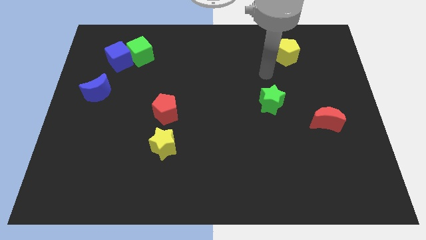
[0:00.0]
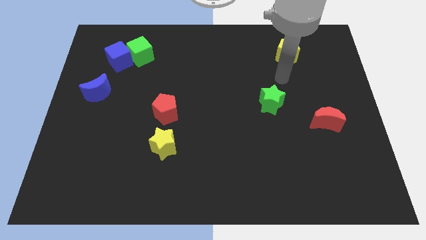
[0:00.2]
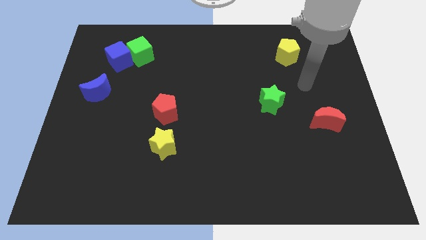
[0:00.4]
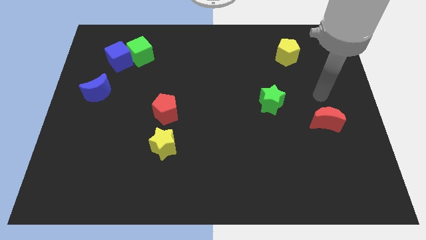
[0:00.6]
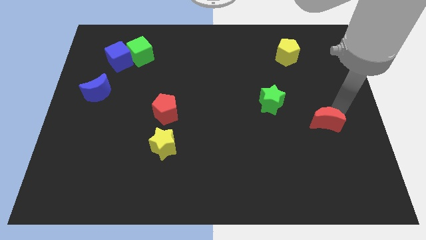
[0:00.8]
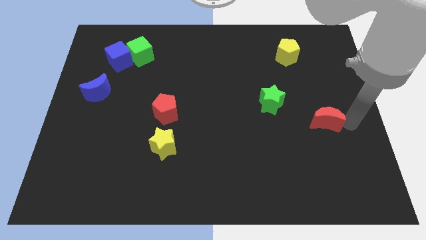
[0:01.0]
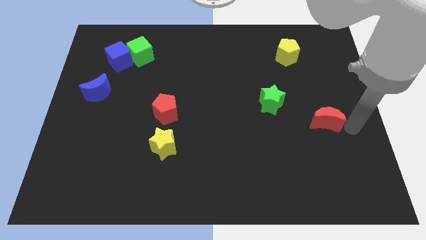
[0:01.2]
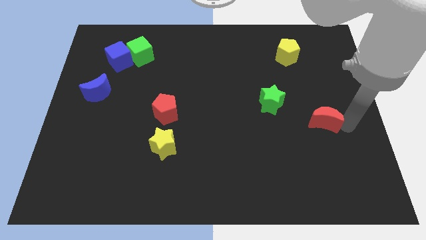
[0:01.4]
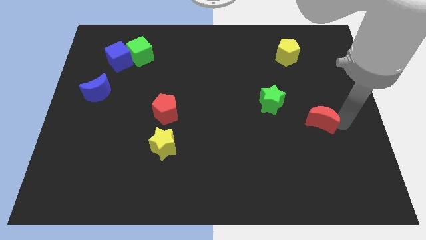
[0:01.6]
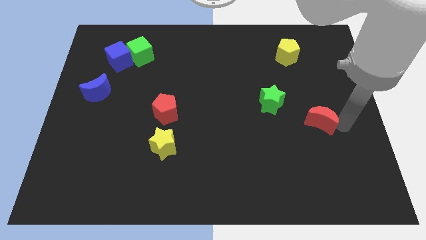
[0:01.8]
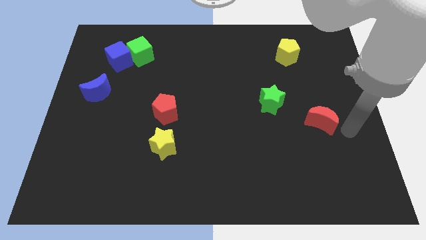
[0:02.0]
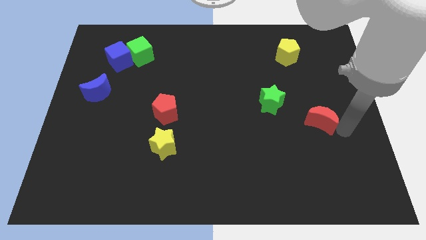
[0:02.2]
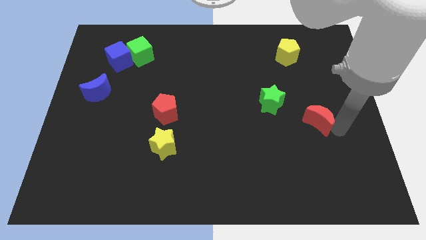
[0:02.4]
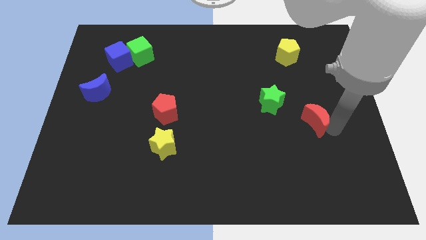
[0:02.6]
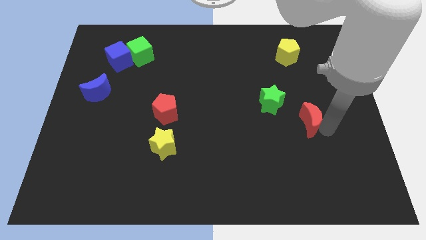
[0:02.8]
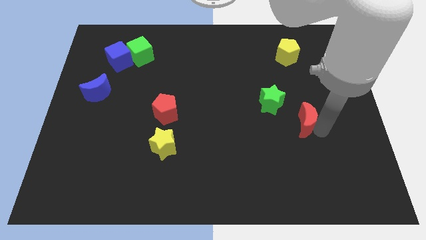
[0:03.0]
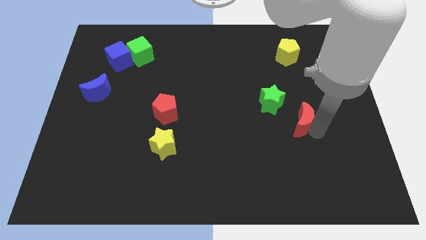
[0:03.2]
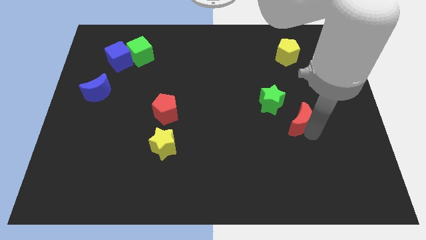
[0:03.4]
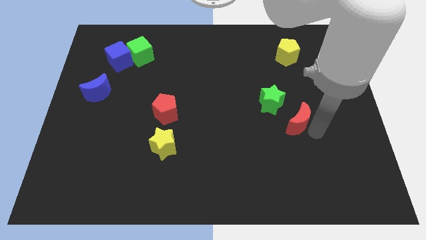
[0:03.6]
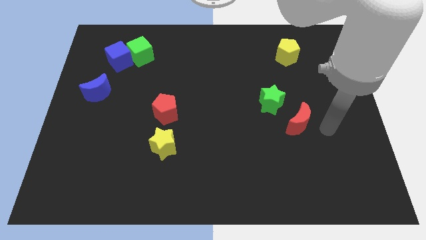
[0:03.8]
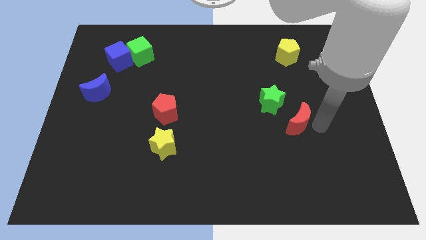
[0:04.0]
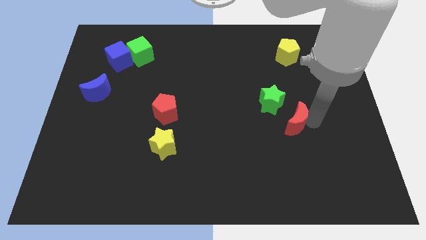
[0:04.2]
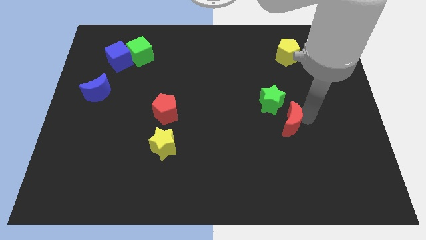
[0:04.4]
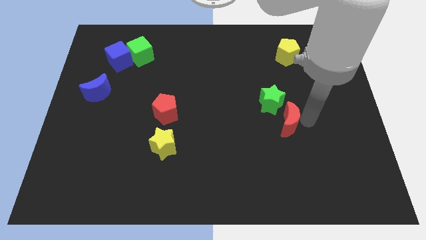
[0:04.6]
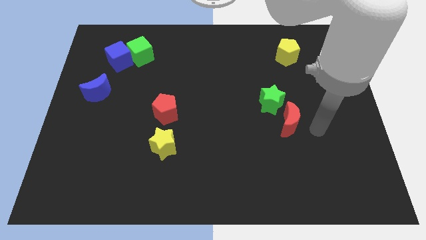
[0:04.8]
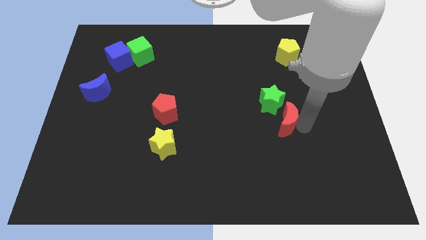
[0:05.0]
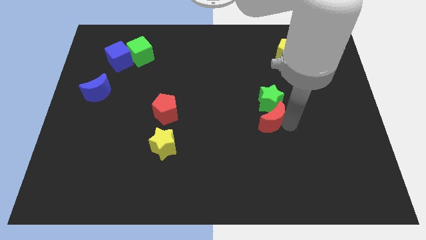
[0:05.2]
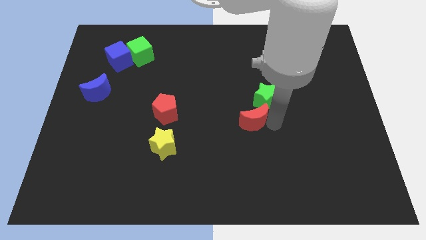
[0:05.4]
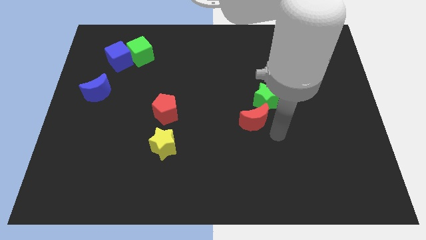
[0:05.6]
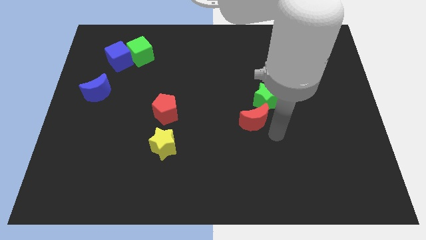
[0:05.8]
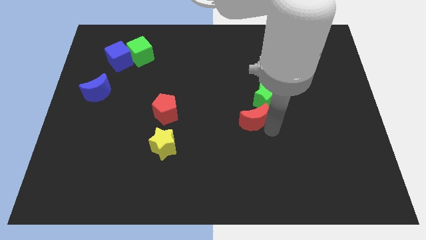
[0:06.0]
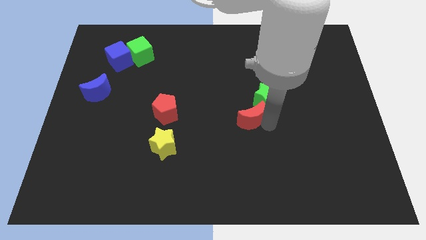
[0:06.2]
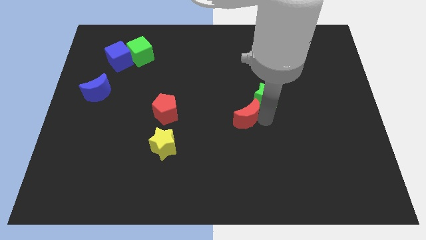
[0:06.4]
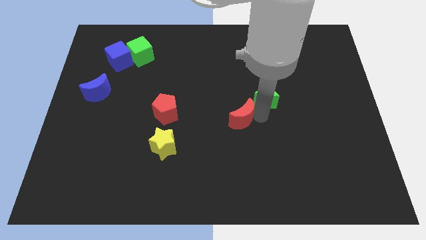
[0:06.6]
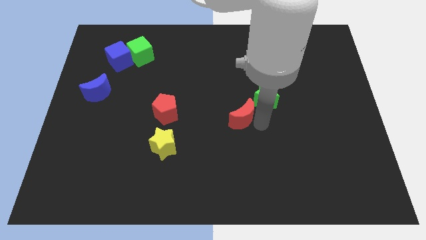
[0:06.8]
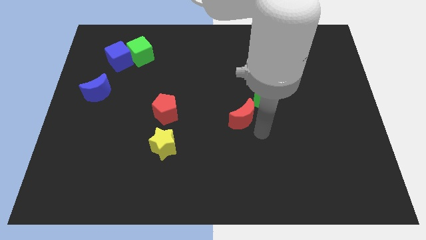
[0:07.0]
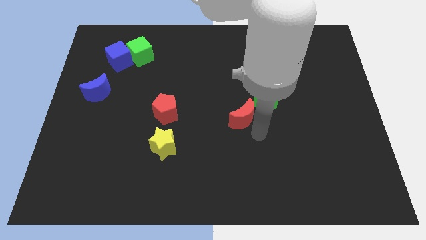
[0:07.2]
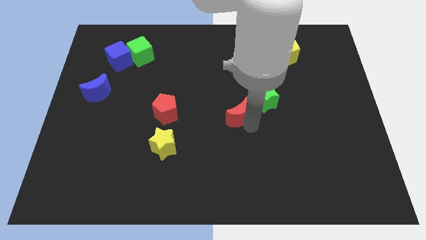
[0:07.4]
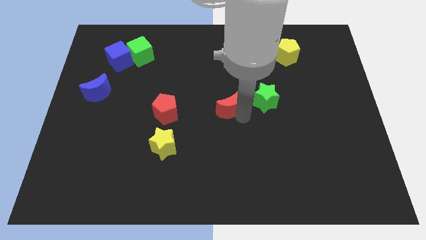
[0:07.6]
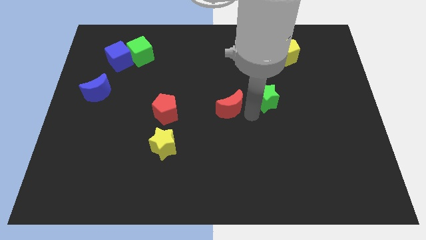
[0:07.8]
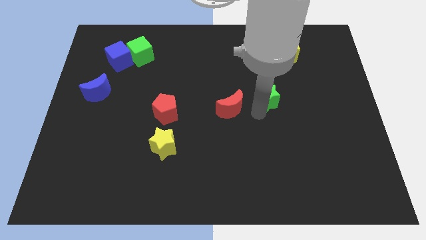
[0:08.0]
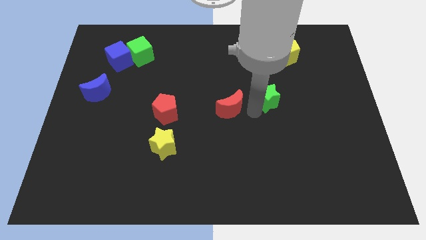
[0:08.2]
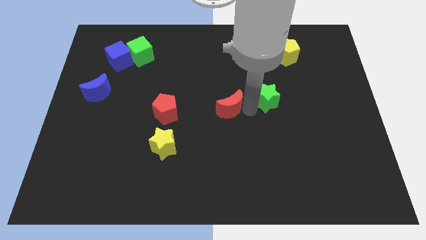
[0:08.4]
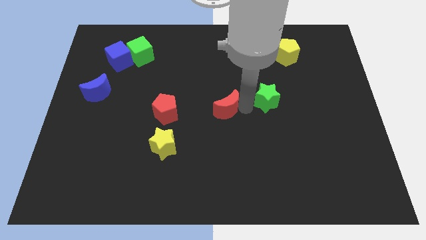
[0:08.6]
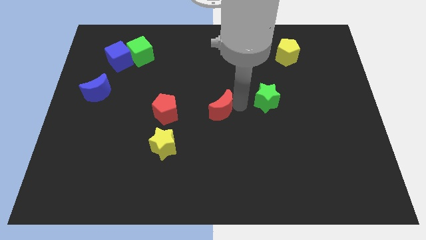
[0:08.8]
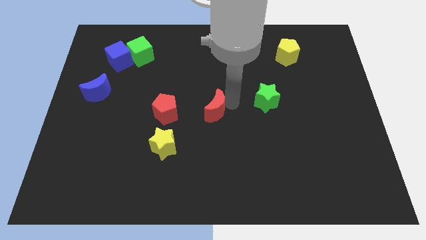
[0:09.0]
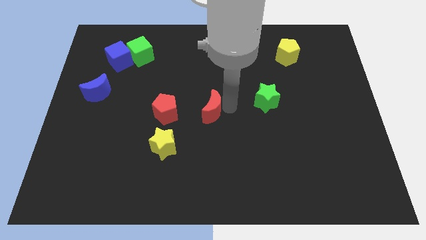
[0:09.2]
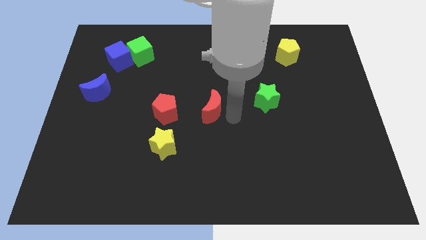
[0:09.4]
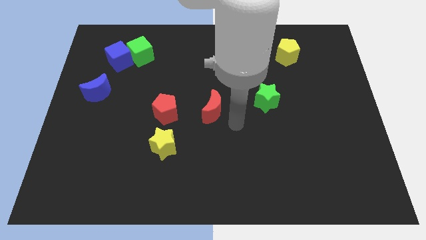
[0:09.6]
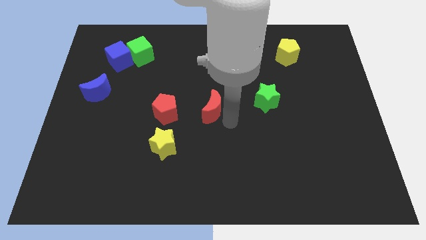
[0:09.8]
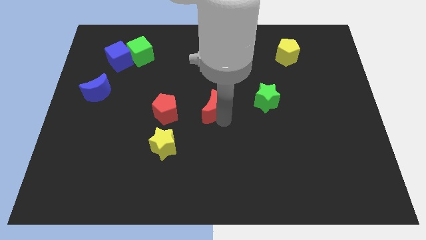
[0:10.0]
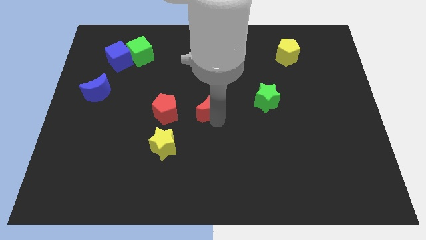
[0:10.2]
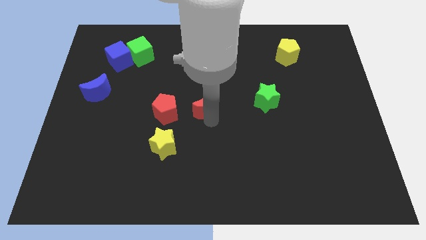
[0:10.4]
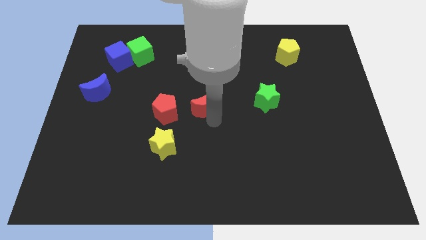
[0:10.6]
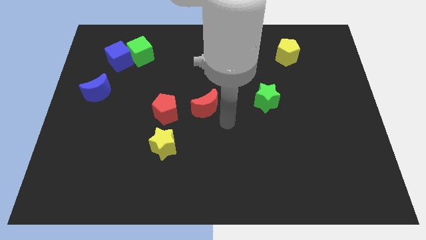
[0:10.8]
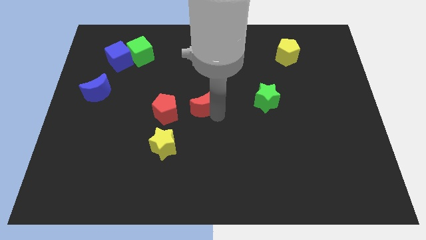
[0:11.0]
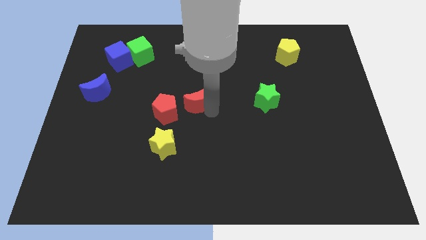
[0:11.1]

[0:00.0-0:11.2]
move the red moon to the top right of the red pentagon

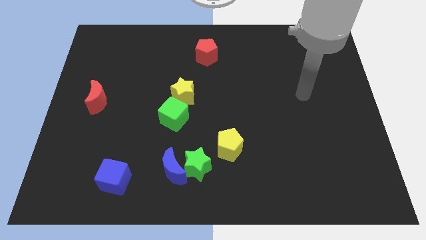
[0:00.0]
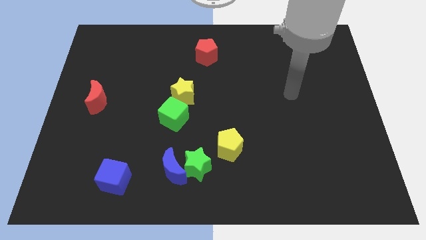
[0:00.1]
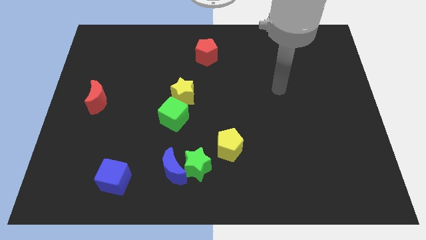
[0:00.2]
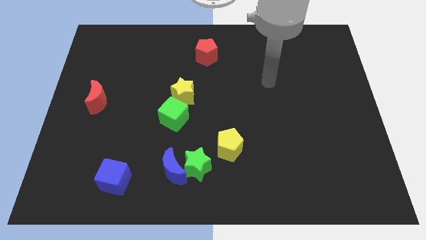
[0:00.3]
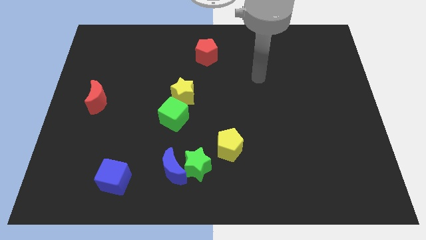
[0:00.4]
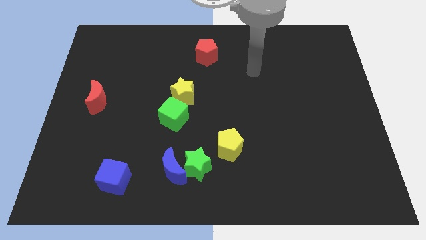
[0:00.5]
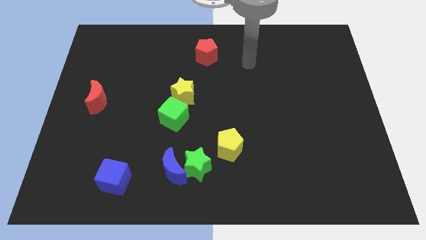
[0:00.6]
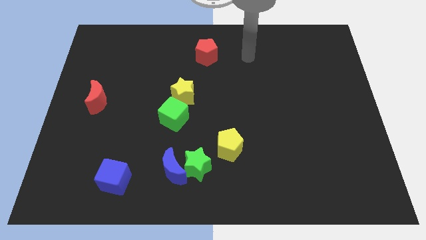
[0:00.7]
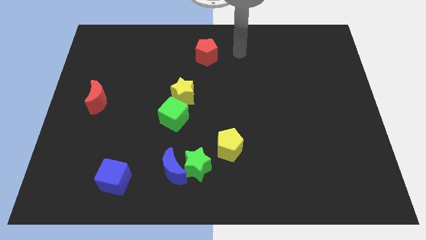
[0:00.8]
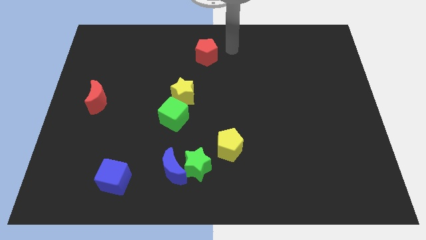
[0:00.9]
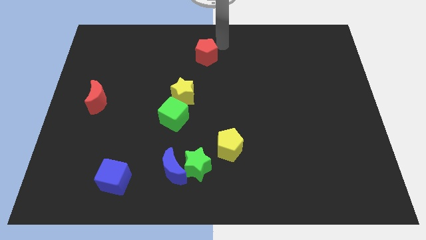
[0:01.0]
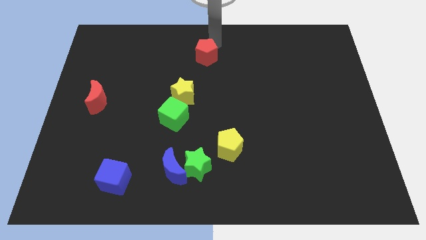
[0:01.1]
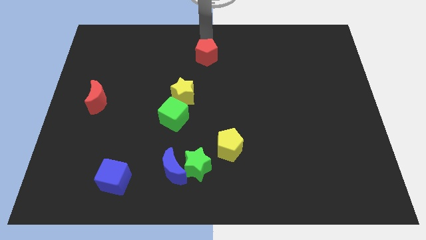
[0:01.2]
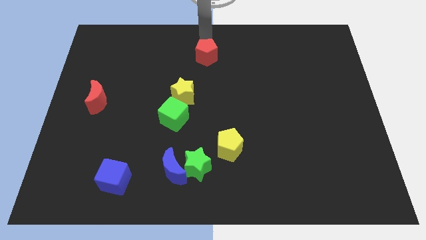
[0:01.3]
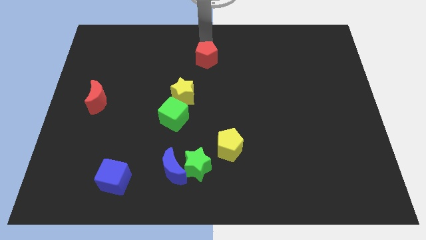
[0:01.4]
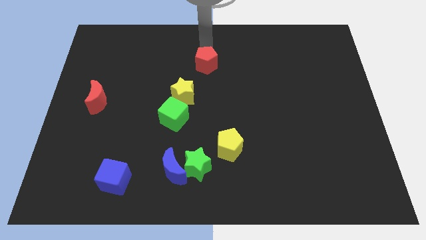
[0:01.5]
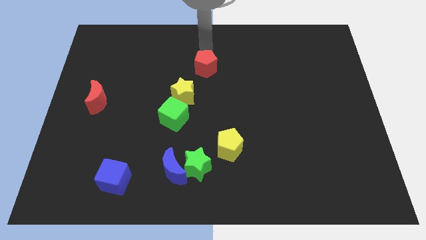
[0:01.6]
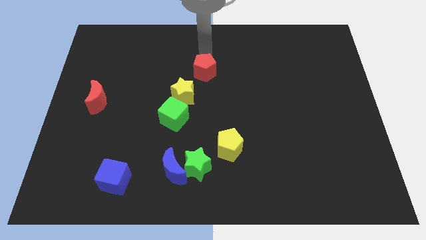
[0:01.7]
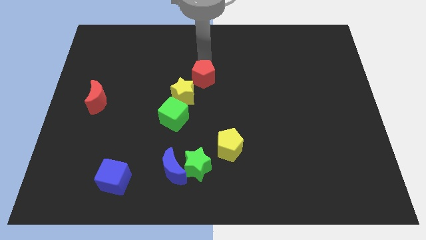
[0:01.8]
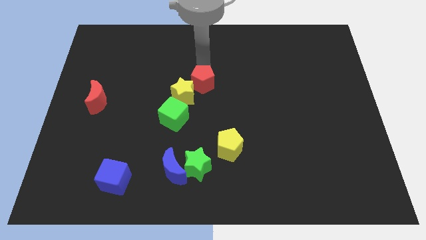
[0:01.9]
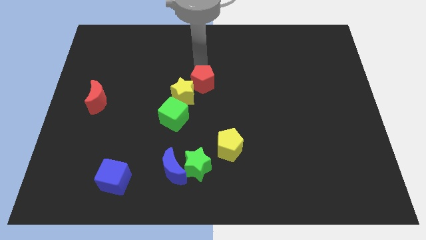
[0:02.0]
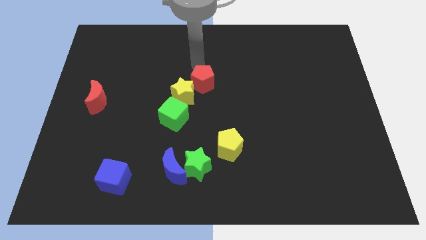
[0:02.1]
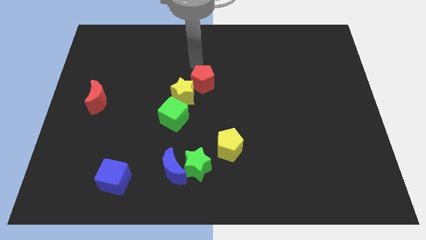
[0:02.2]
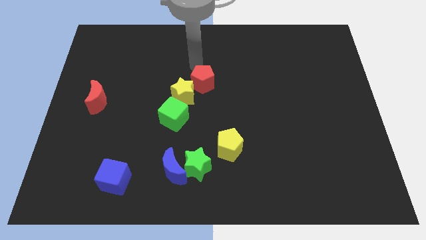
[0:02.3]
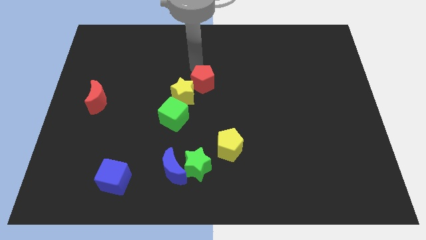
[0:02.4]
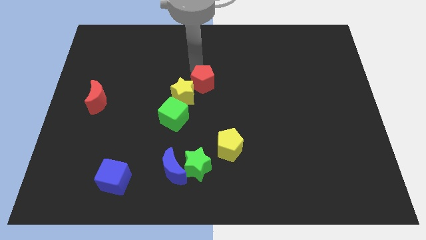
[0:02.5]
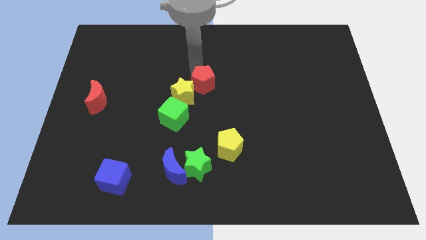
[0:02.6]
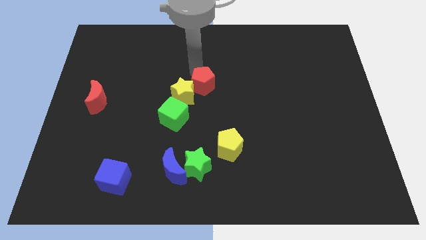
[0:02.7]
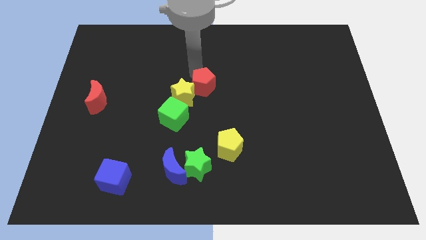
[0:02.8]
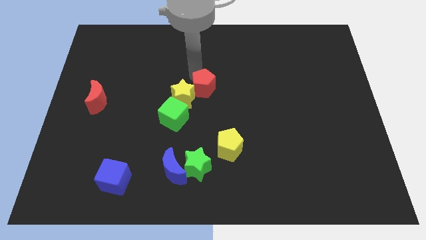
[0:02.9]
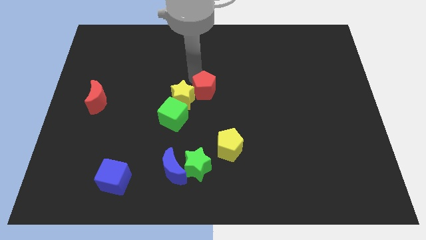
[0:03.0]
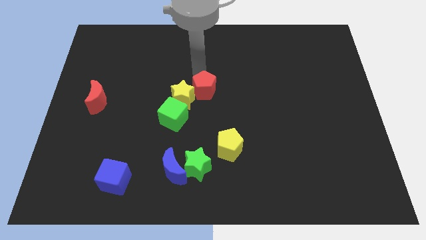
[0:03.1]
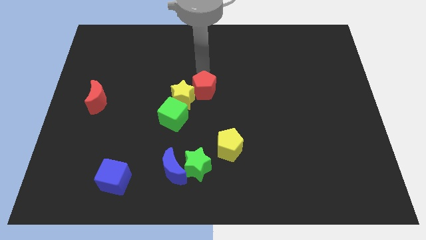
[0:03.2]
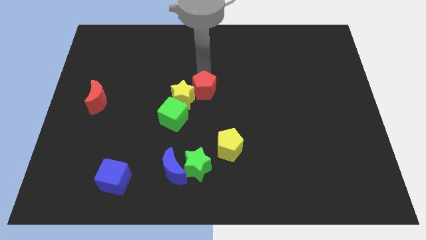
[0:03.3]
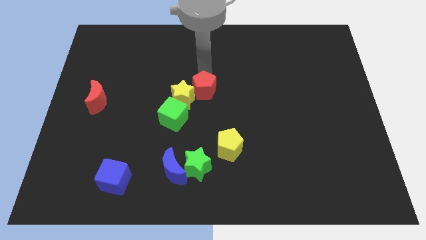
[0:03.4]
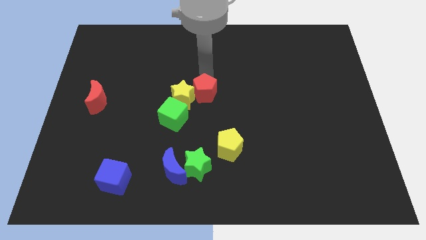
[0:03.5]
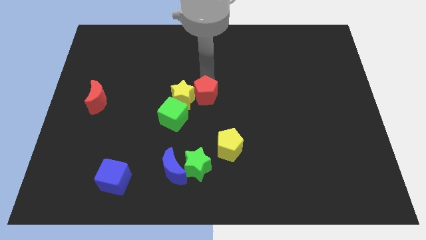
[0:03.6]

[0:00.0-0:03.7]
slide the red pentagon diagonally down and to the right of the yellow star
